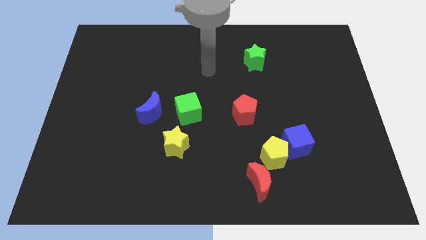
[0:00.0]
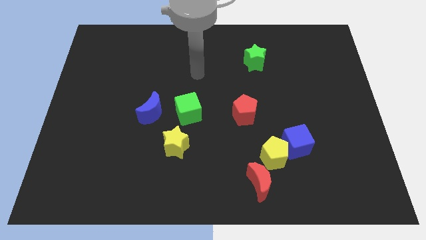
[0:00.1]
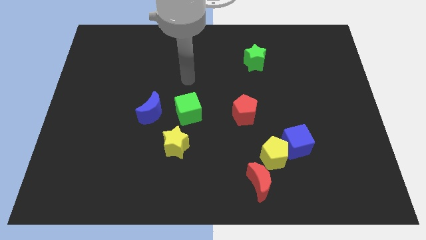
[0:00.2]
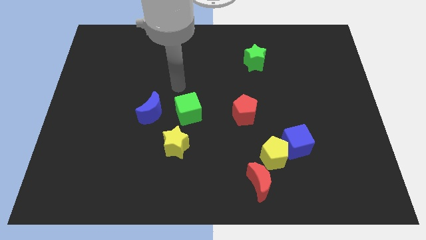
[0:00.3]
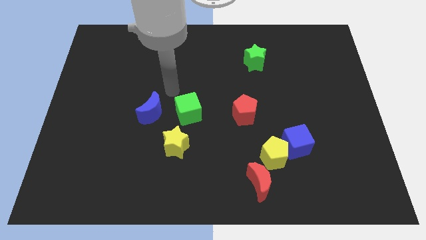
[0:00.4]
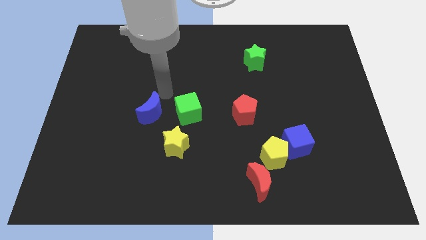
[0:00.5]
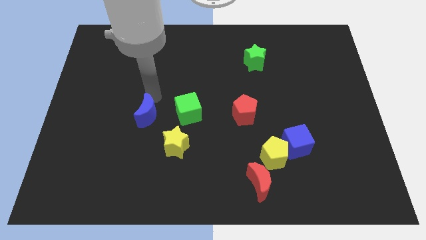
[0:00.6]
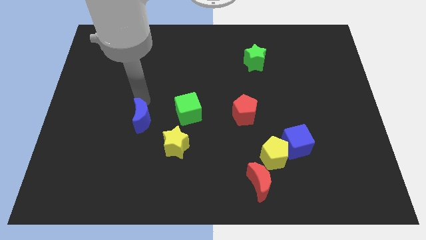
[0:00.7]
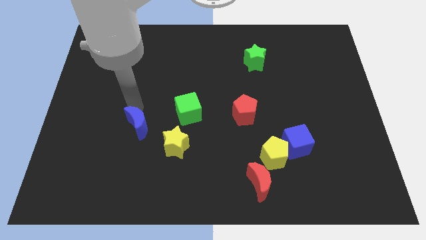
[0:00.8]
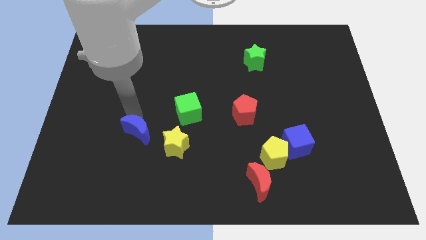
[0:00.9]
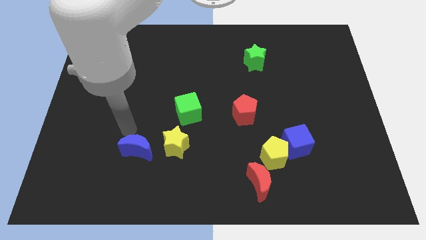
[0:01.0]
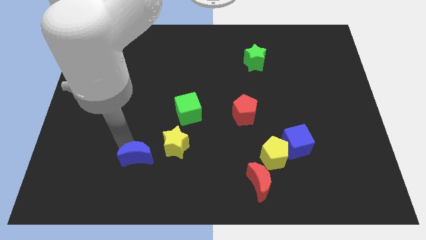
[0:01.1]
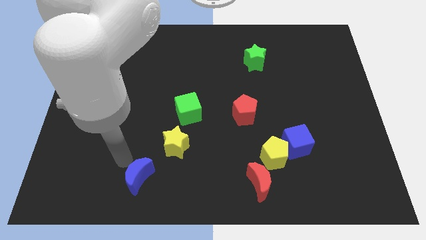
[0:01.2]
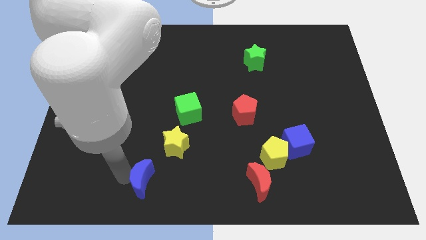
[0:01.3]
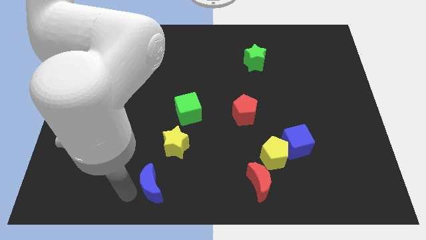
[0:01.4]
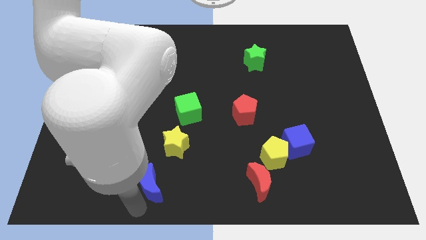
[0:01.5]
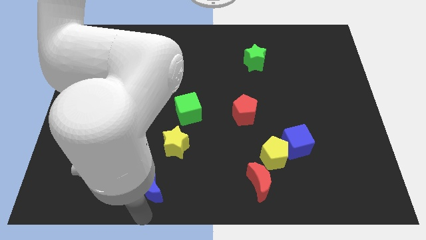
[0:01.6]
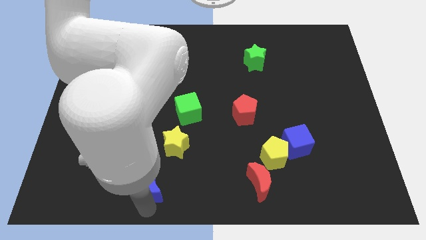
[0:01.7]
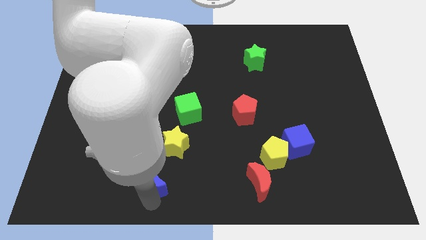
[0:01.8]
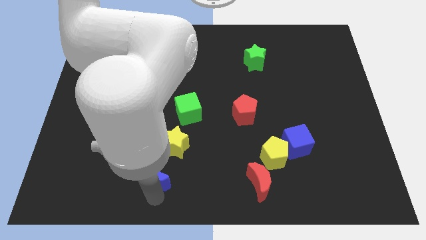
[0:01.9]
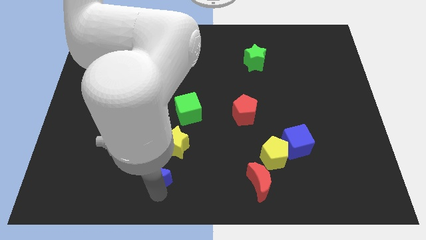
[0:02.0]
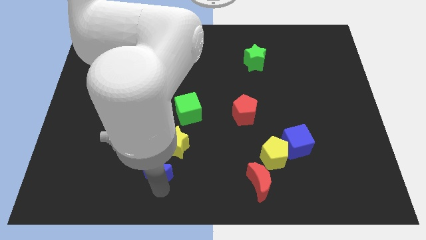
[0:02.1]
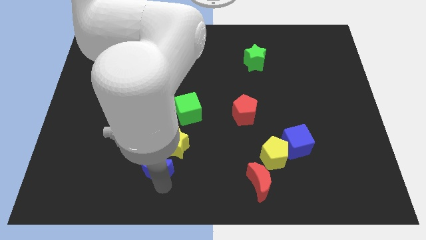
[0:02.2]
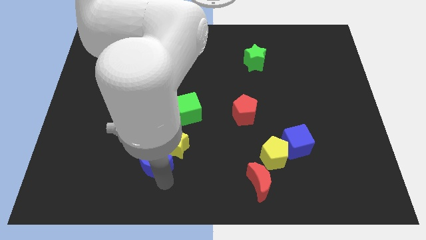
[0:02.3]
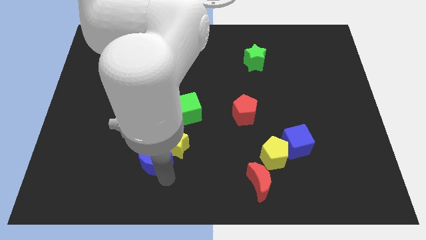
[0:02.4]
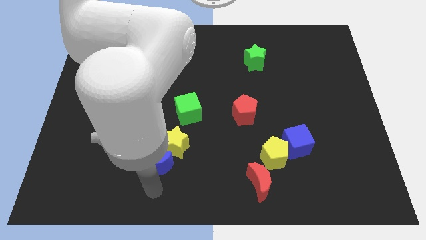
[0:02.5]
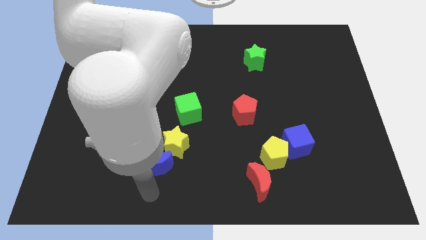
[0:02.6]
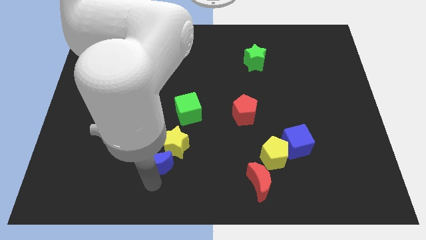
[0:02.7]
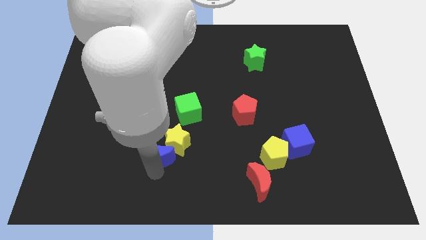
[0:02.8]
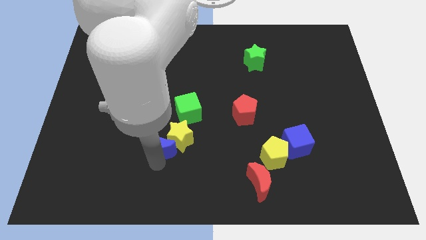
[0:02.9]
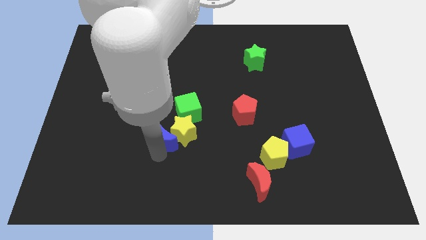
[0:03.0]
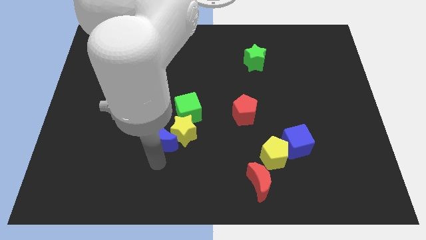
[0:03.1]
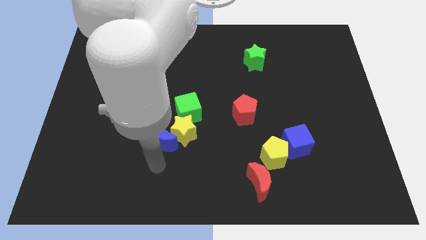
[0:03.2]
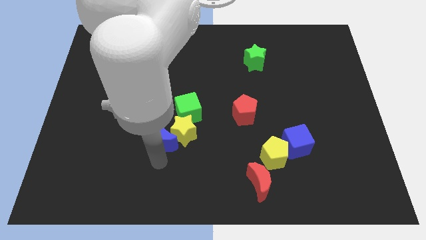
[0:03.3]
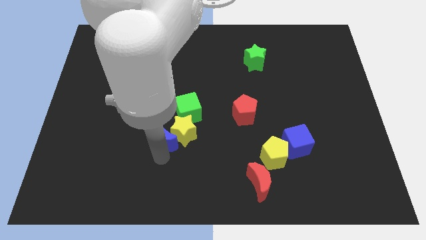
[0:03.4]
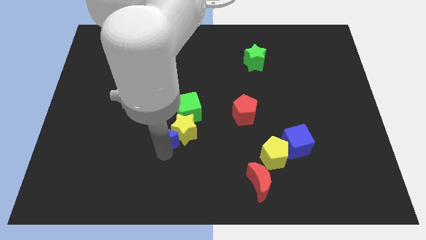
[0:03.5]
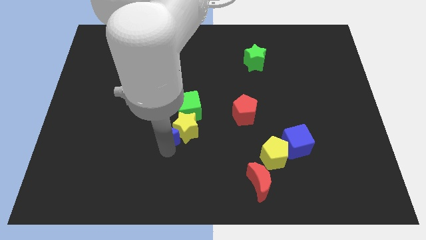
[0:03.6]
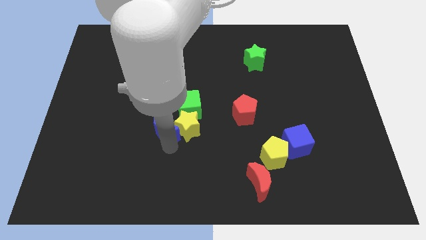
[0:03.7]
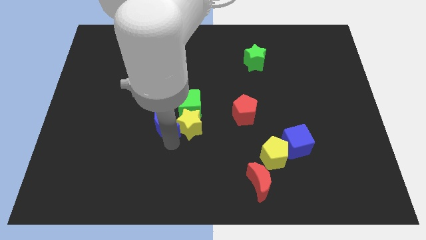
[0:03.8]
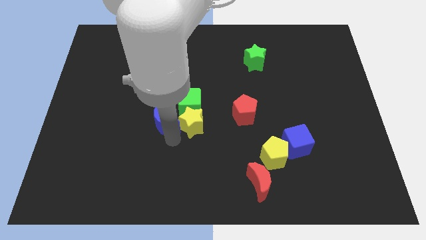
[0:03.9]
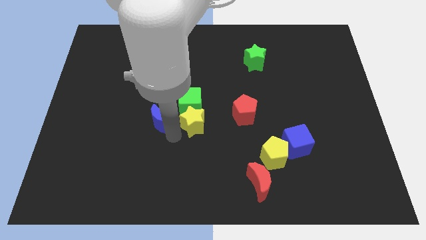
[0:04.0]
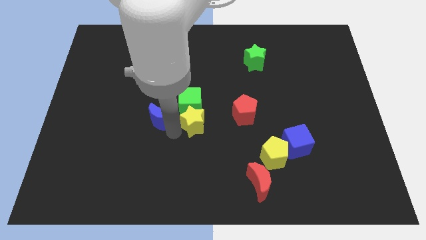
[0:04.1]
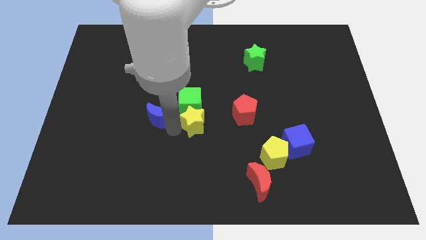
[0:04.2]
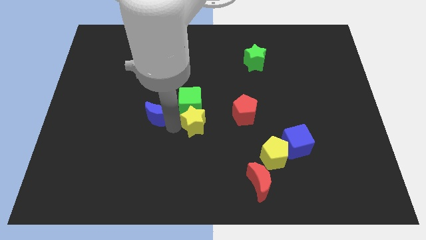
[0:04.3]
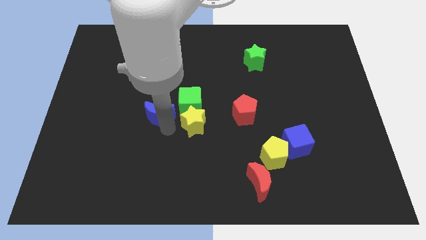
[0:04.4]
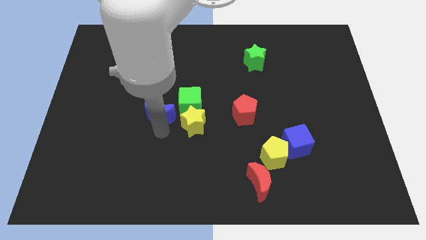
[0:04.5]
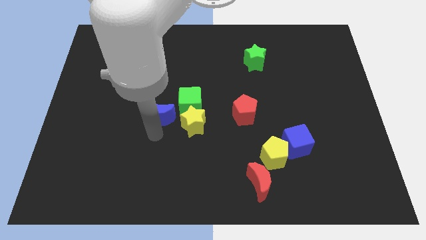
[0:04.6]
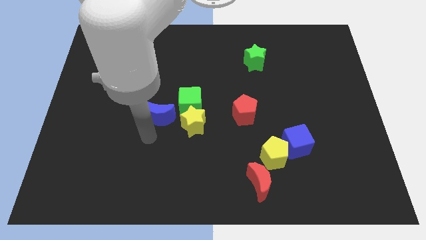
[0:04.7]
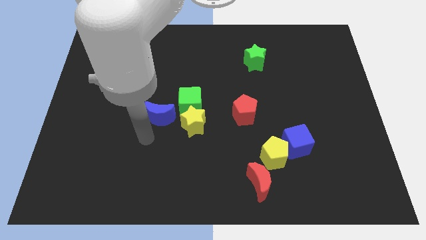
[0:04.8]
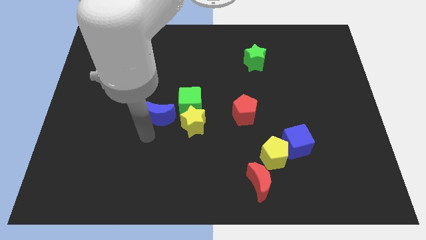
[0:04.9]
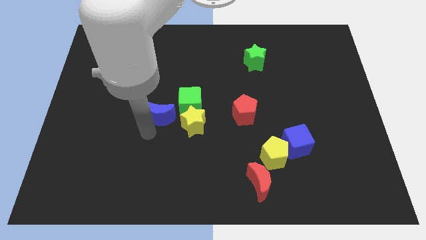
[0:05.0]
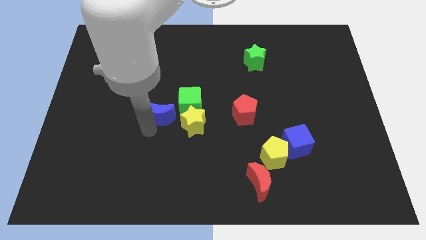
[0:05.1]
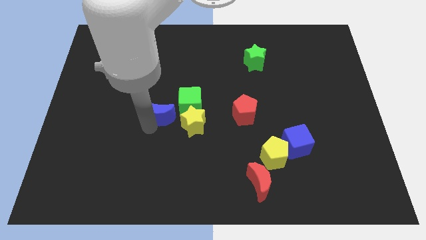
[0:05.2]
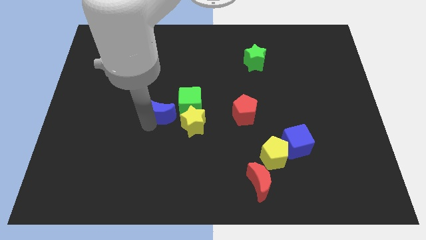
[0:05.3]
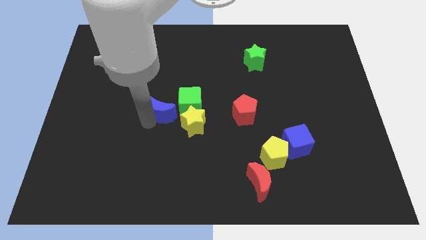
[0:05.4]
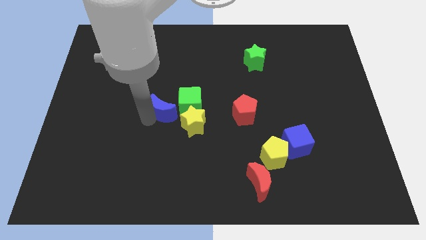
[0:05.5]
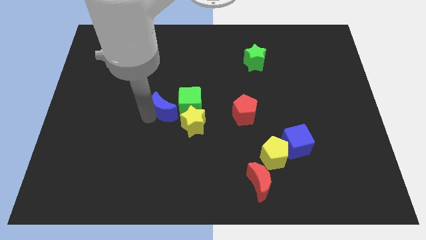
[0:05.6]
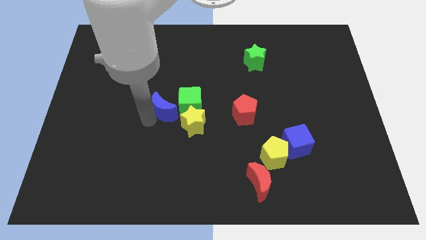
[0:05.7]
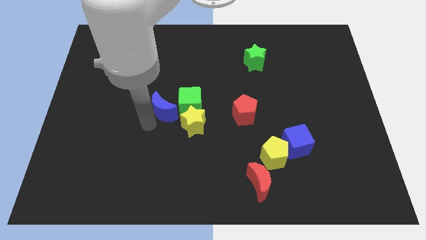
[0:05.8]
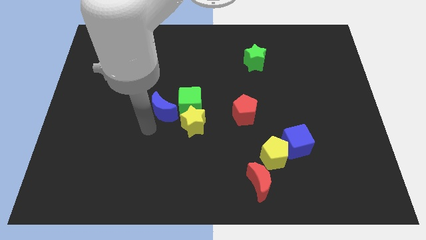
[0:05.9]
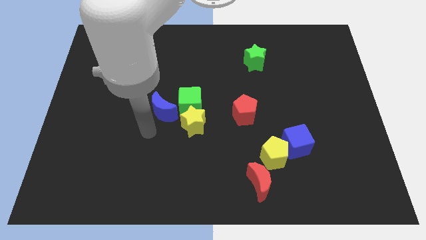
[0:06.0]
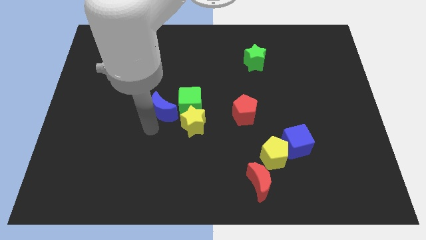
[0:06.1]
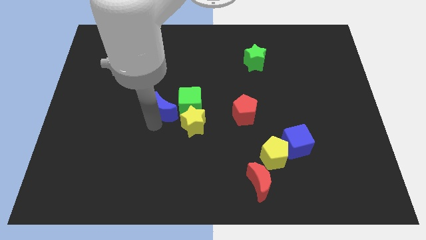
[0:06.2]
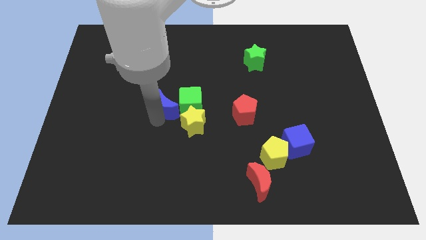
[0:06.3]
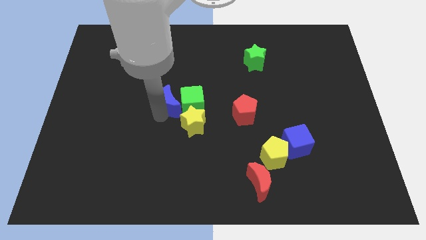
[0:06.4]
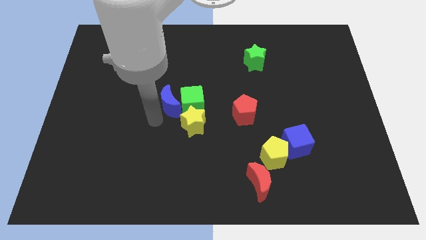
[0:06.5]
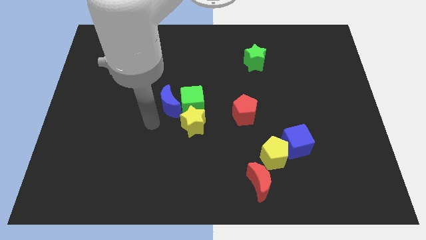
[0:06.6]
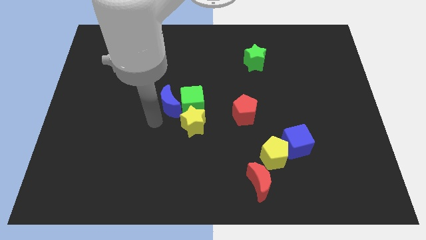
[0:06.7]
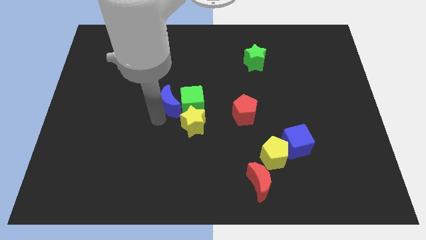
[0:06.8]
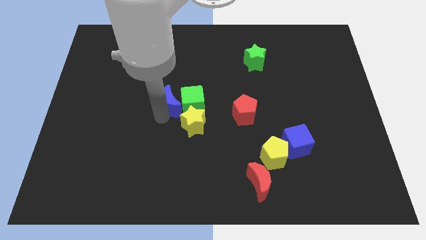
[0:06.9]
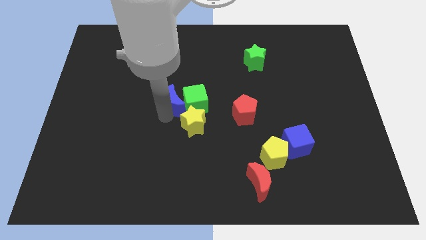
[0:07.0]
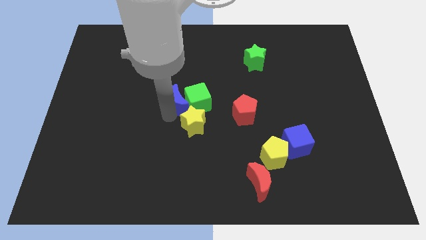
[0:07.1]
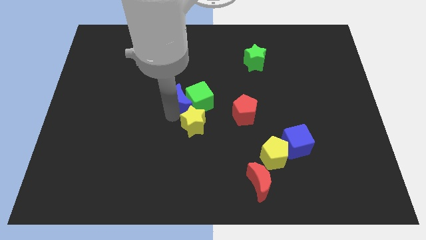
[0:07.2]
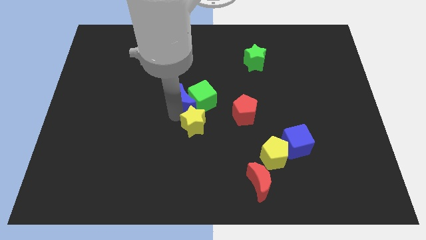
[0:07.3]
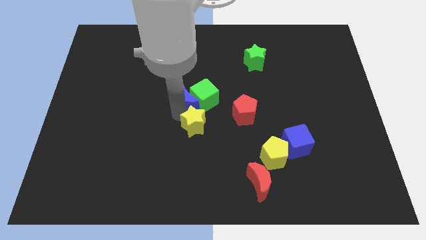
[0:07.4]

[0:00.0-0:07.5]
slide the blue moon upwards and to the right a little

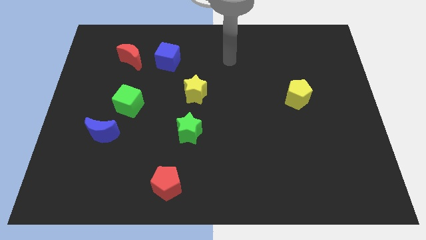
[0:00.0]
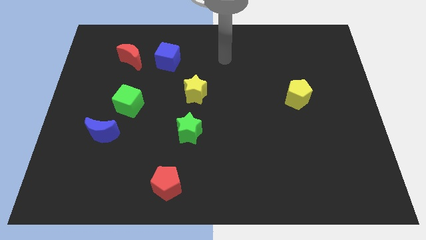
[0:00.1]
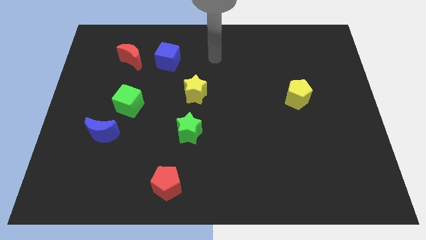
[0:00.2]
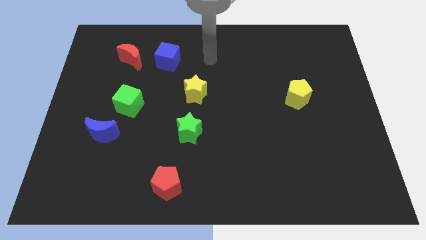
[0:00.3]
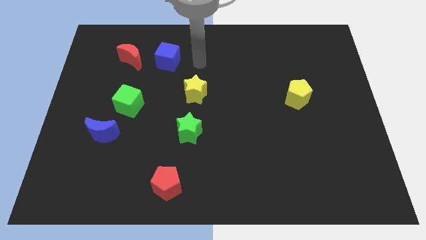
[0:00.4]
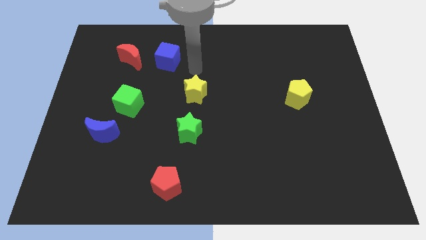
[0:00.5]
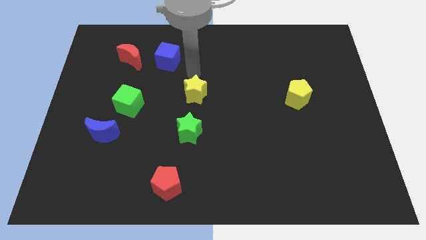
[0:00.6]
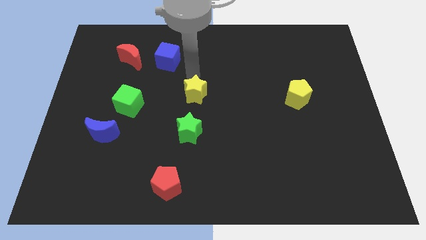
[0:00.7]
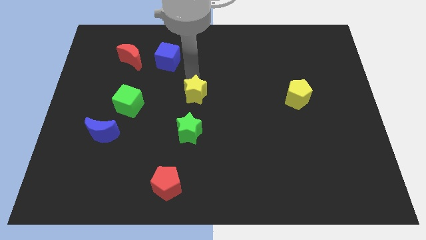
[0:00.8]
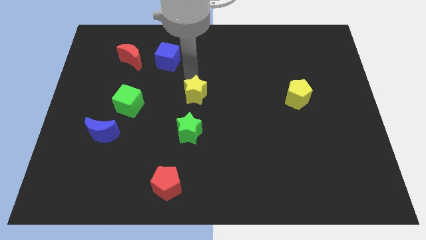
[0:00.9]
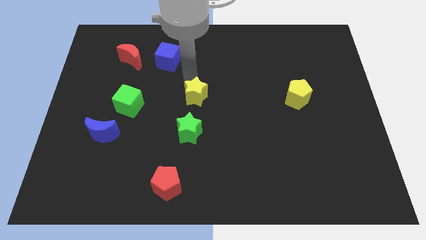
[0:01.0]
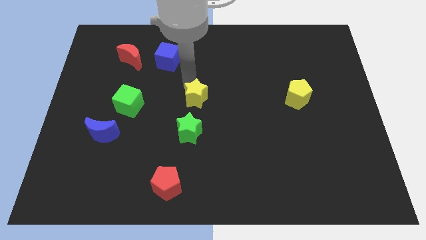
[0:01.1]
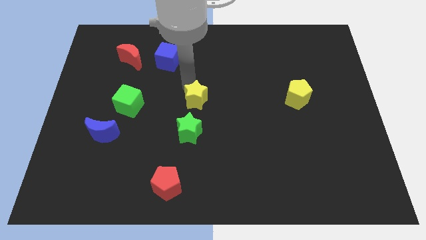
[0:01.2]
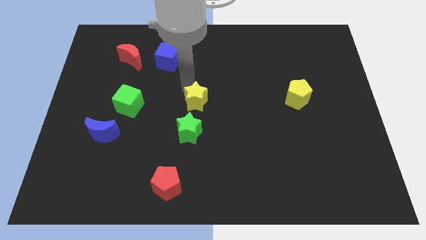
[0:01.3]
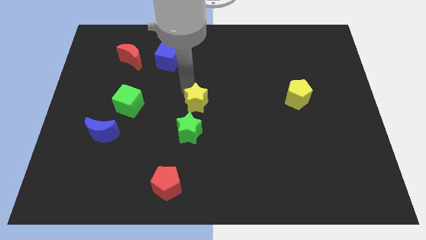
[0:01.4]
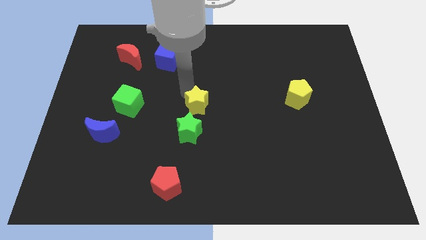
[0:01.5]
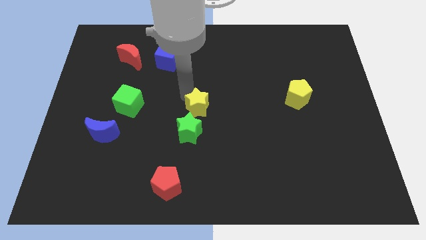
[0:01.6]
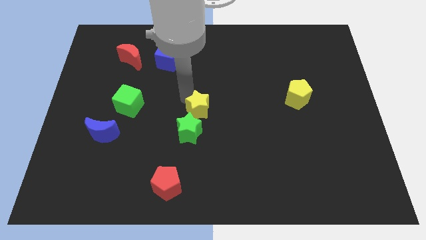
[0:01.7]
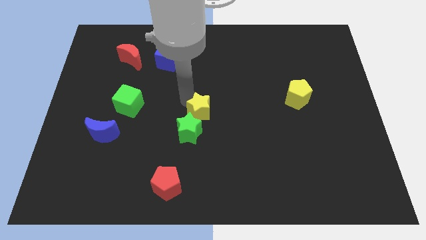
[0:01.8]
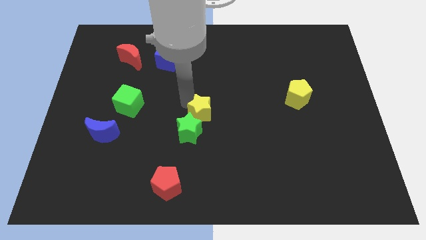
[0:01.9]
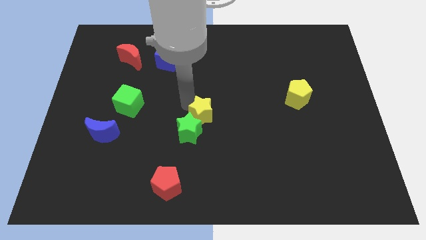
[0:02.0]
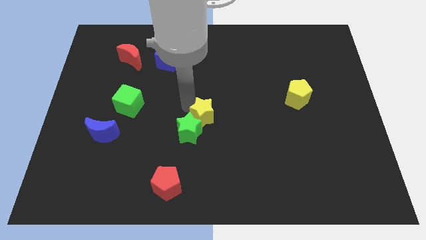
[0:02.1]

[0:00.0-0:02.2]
slide the yellow star a bit downwards
